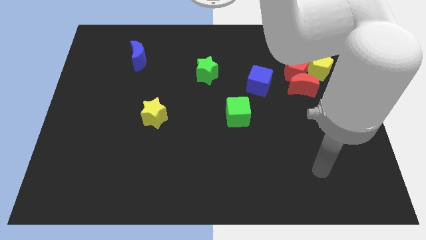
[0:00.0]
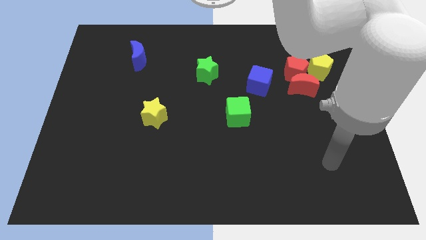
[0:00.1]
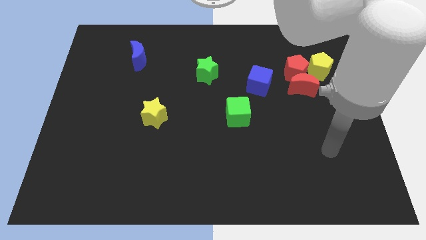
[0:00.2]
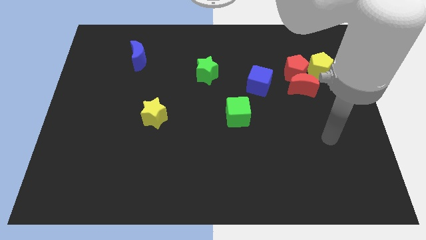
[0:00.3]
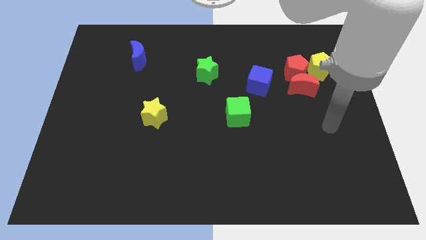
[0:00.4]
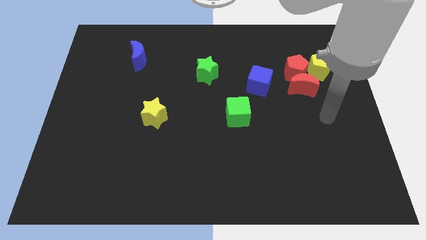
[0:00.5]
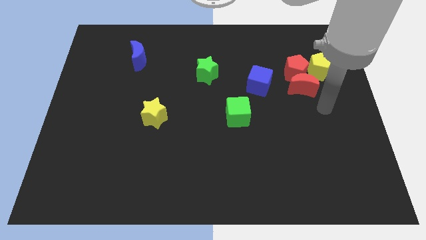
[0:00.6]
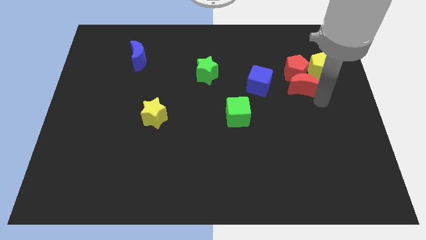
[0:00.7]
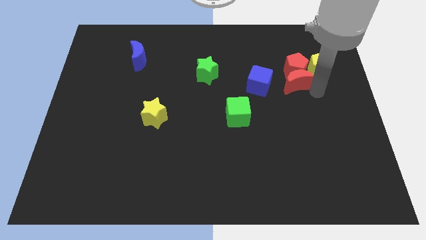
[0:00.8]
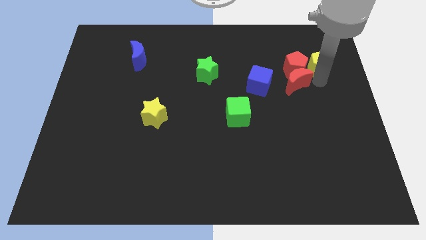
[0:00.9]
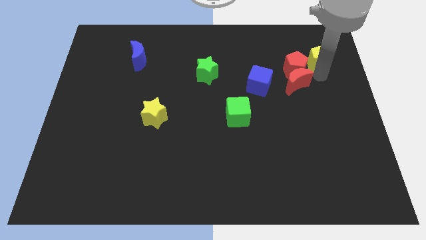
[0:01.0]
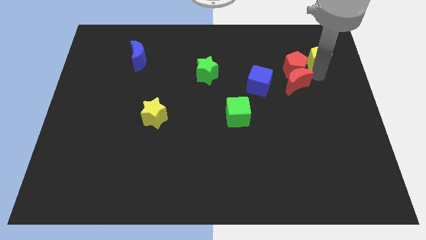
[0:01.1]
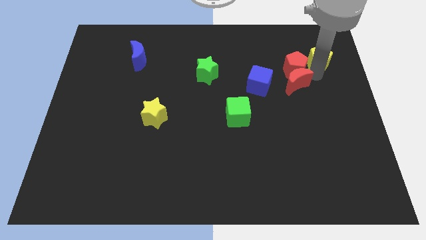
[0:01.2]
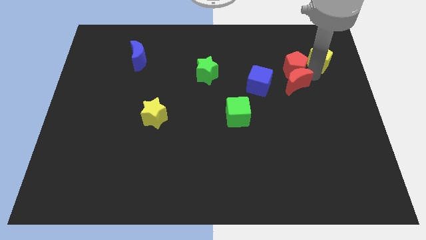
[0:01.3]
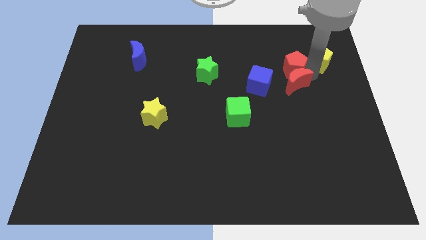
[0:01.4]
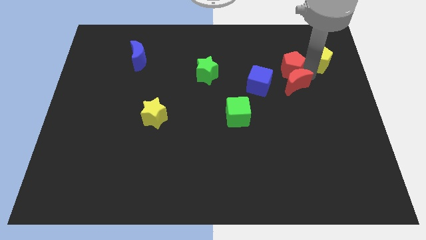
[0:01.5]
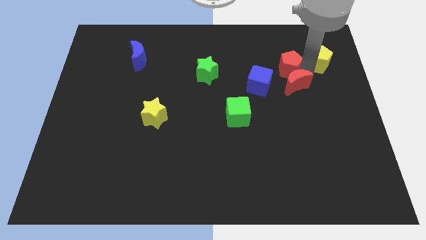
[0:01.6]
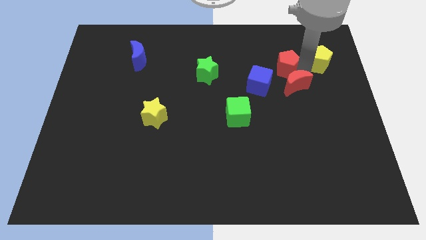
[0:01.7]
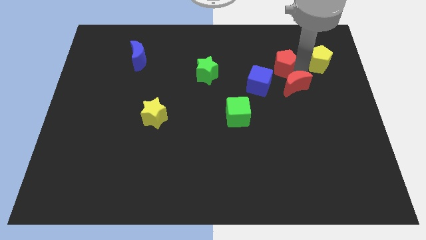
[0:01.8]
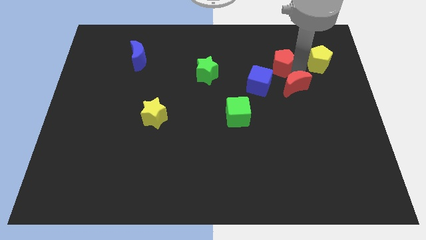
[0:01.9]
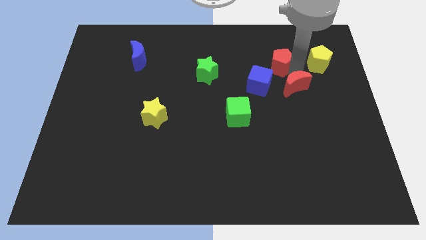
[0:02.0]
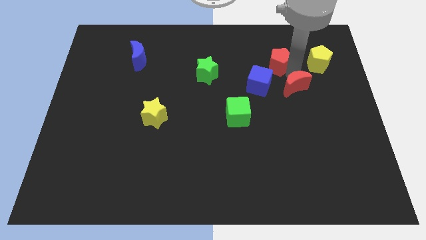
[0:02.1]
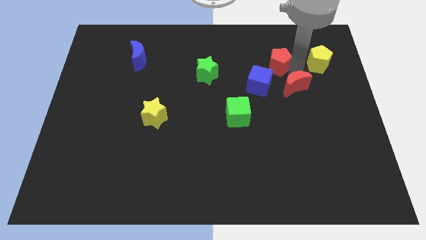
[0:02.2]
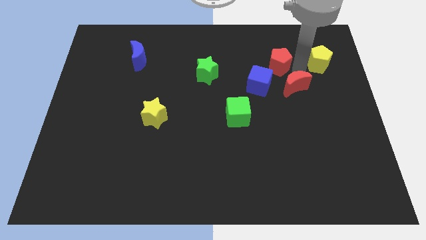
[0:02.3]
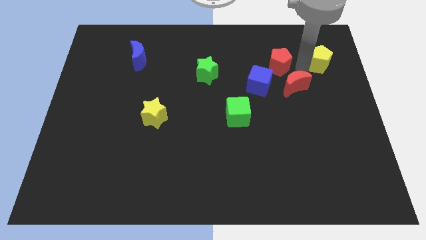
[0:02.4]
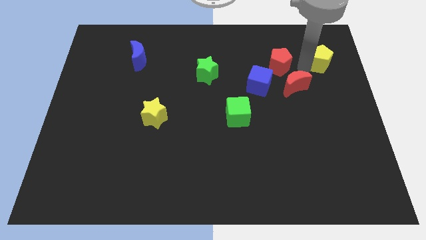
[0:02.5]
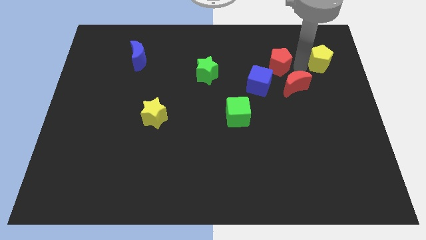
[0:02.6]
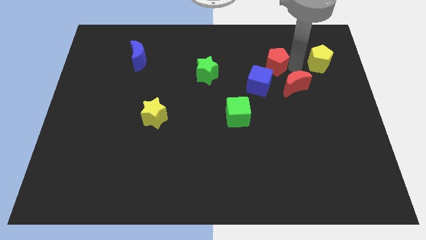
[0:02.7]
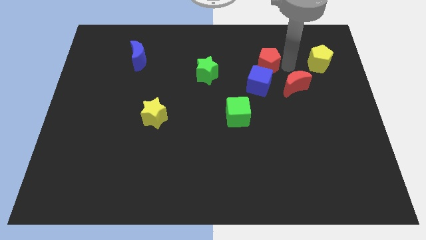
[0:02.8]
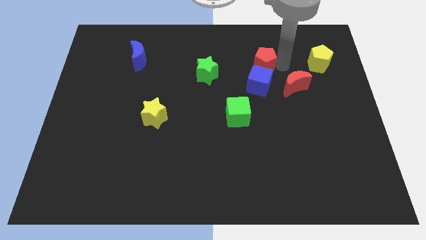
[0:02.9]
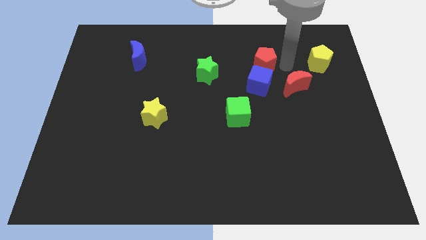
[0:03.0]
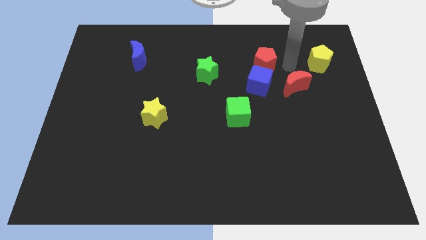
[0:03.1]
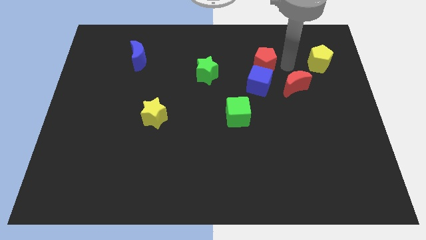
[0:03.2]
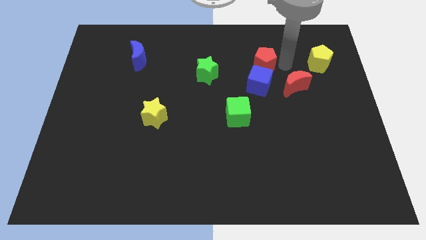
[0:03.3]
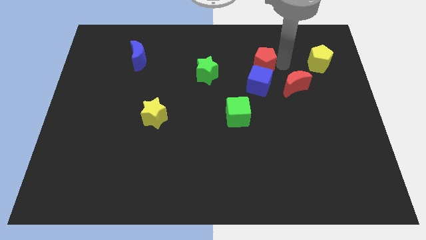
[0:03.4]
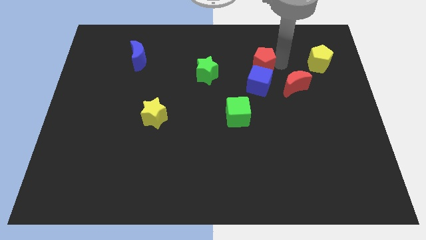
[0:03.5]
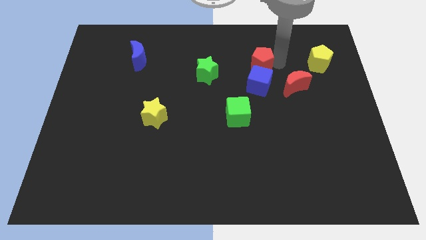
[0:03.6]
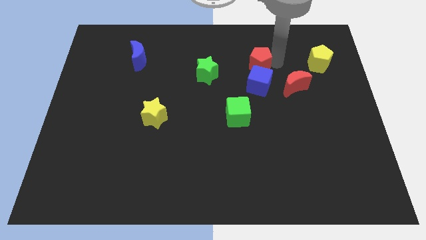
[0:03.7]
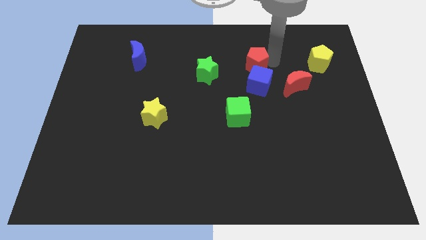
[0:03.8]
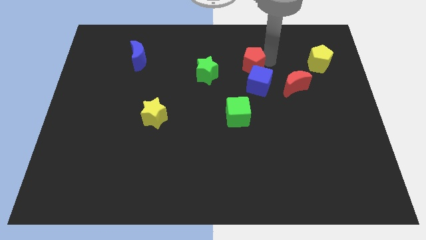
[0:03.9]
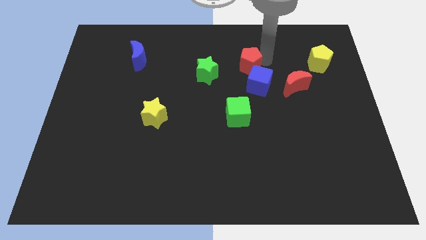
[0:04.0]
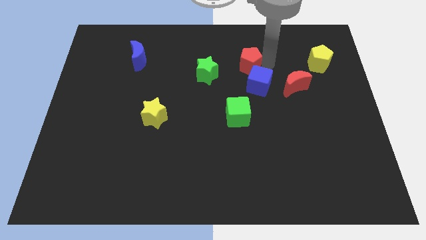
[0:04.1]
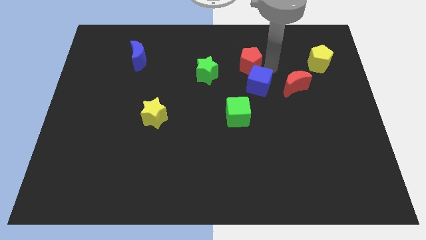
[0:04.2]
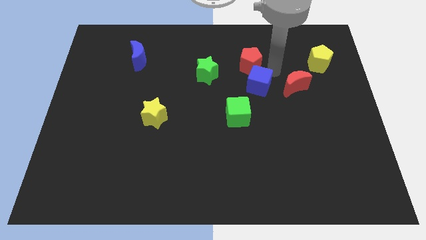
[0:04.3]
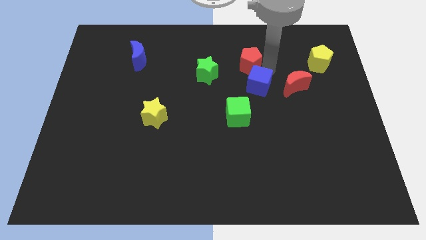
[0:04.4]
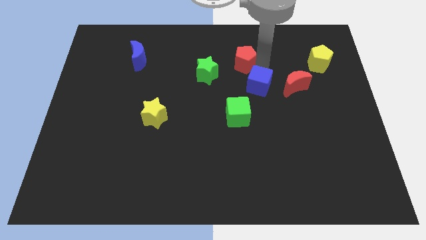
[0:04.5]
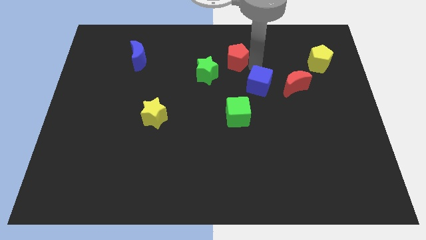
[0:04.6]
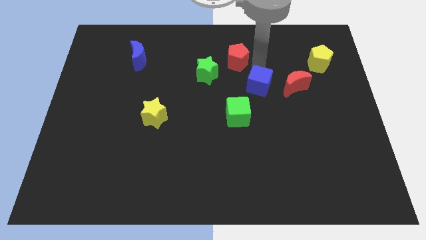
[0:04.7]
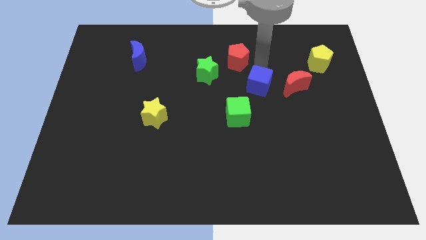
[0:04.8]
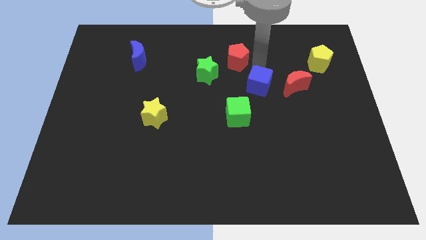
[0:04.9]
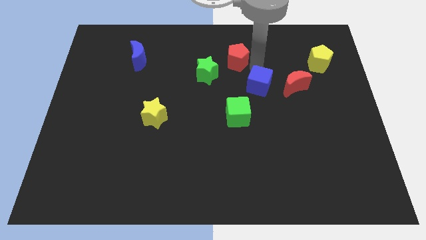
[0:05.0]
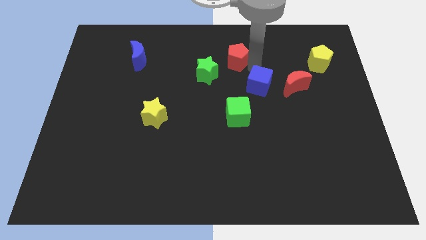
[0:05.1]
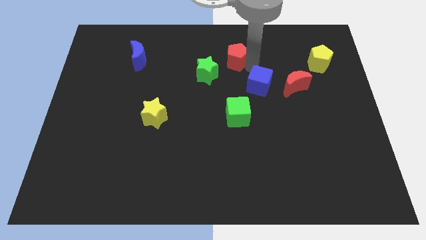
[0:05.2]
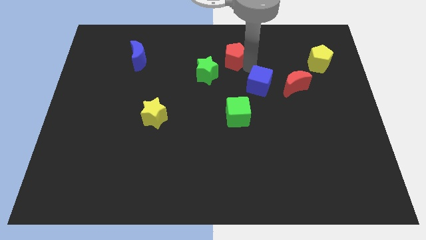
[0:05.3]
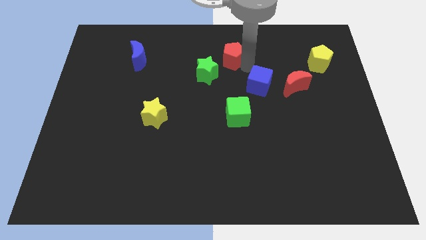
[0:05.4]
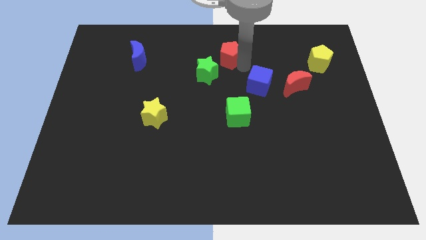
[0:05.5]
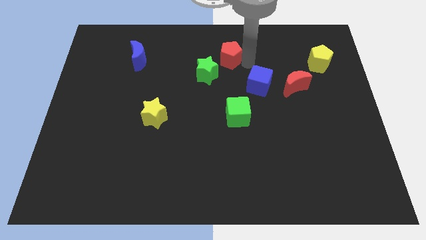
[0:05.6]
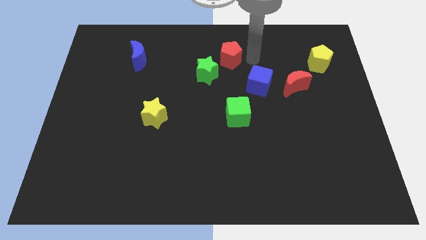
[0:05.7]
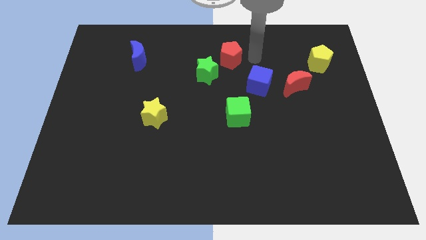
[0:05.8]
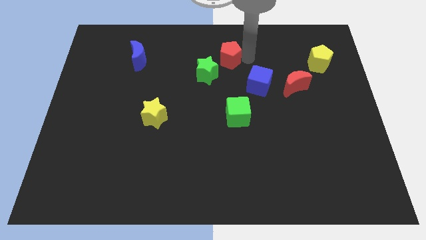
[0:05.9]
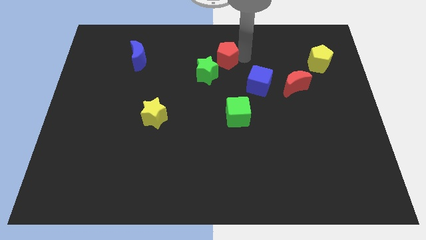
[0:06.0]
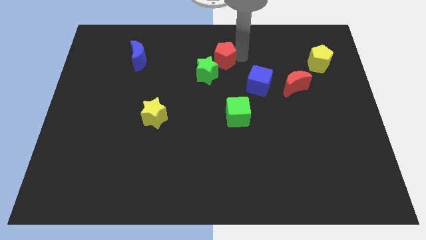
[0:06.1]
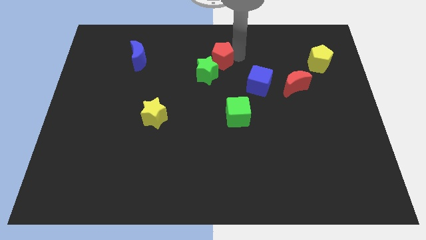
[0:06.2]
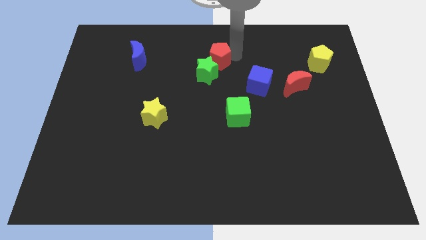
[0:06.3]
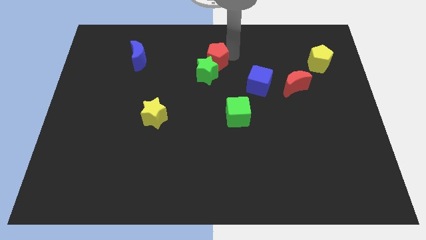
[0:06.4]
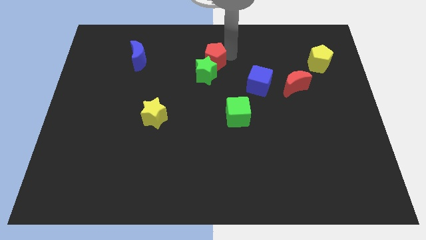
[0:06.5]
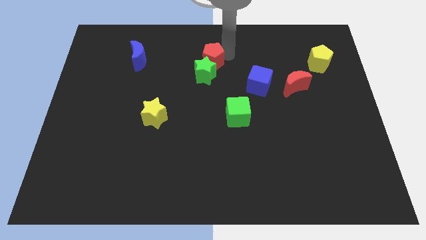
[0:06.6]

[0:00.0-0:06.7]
slide the red pentagon left

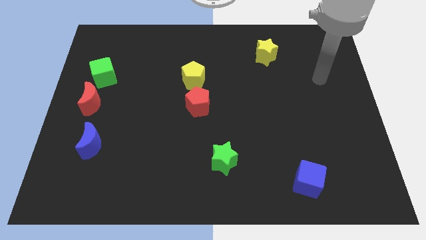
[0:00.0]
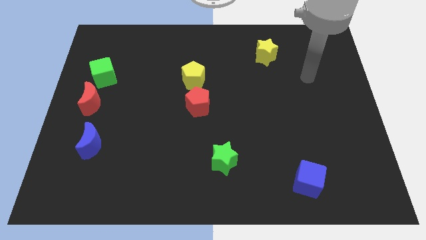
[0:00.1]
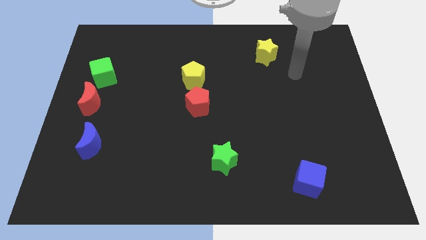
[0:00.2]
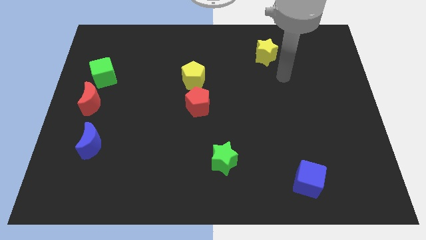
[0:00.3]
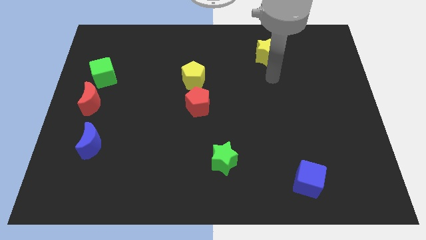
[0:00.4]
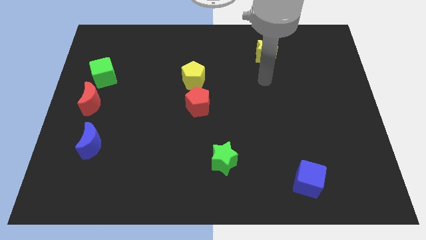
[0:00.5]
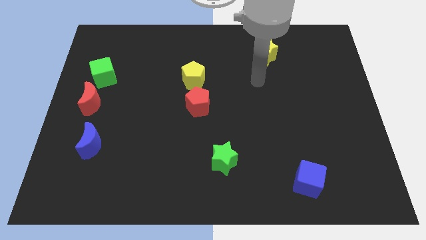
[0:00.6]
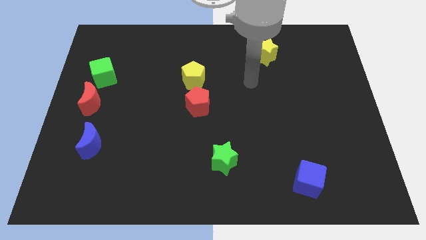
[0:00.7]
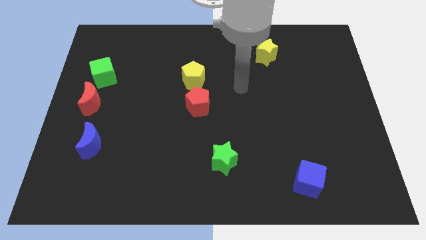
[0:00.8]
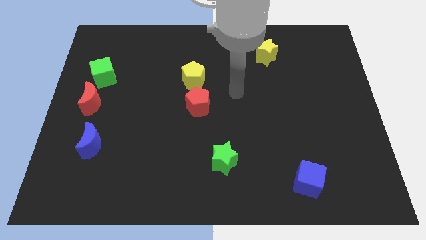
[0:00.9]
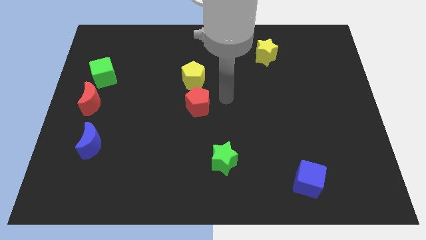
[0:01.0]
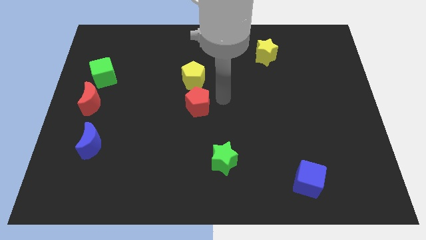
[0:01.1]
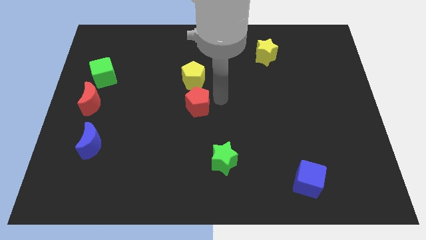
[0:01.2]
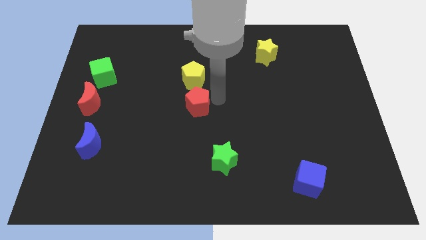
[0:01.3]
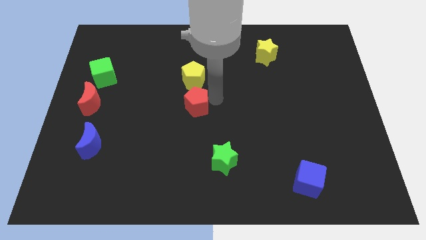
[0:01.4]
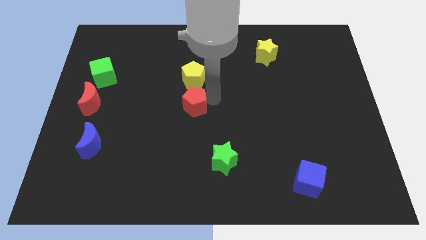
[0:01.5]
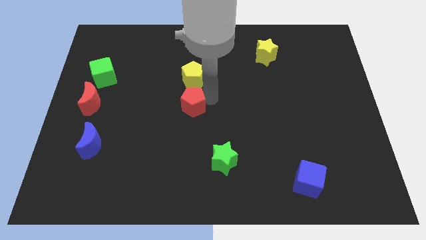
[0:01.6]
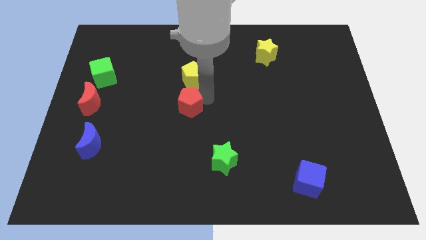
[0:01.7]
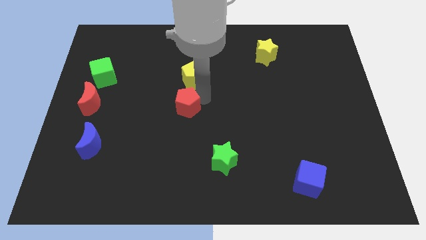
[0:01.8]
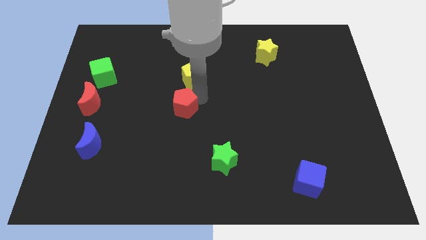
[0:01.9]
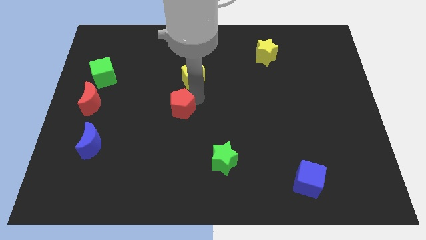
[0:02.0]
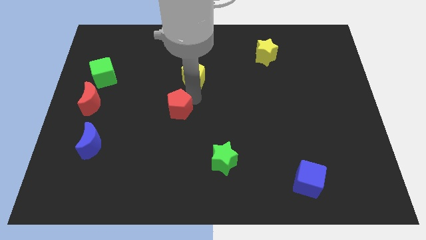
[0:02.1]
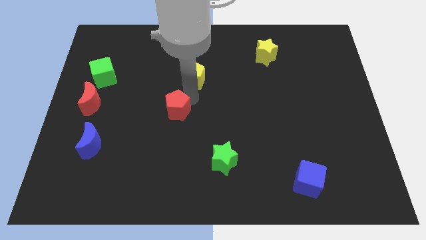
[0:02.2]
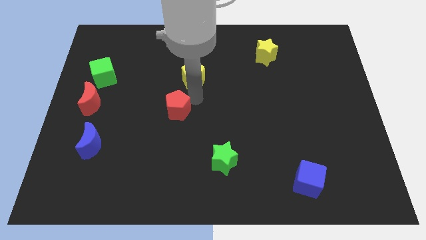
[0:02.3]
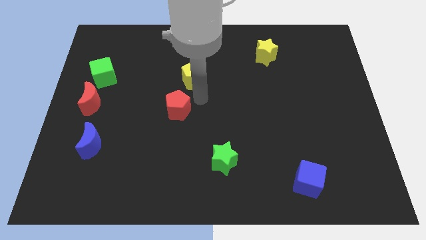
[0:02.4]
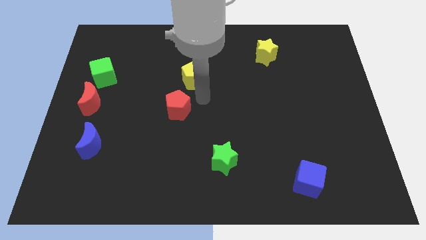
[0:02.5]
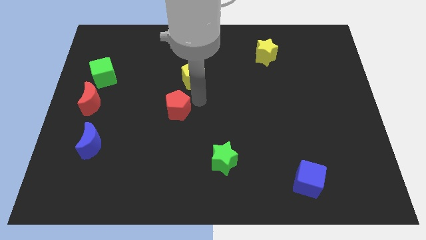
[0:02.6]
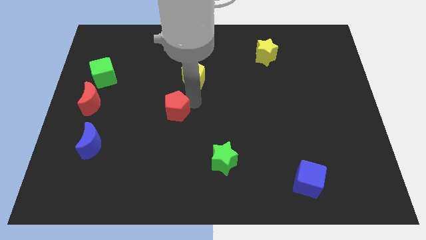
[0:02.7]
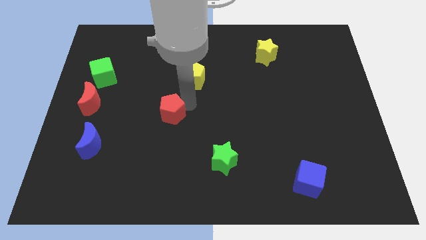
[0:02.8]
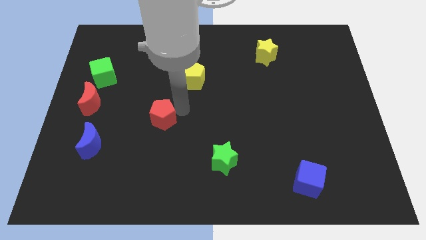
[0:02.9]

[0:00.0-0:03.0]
slightly move the red pentagon to the left
